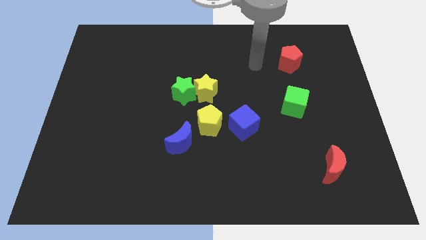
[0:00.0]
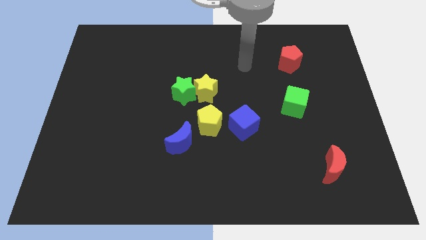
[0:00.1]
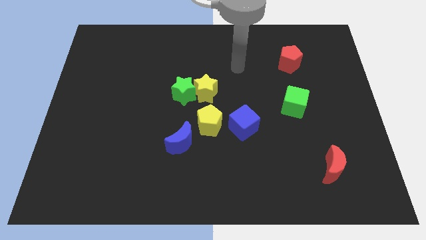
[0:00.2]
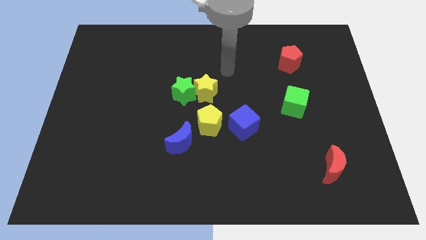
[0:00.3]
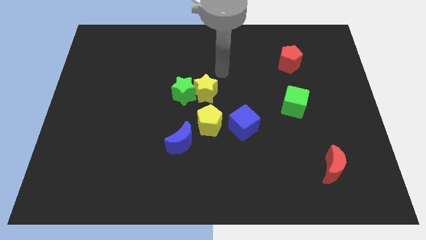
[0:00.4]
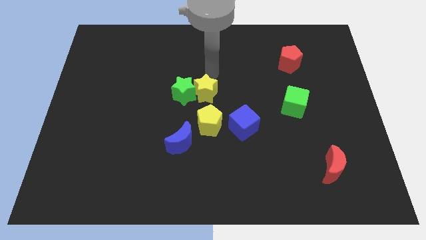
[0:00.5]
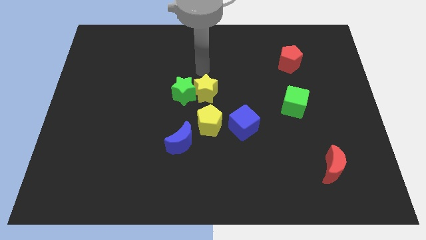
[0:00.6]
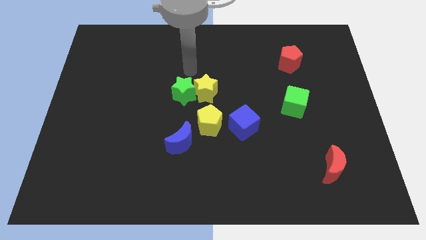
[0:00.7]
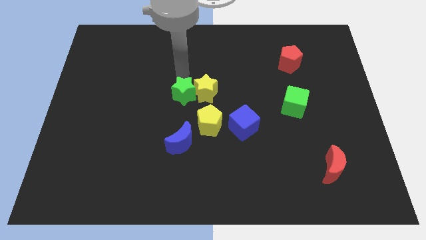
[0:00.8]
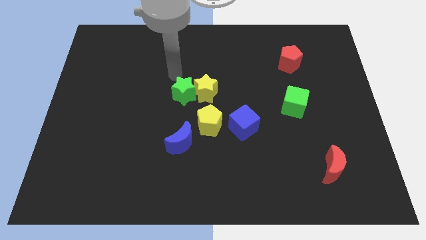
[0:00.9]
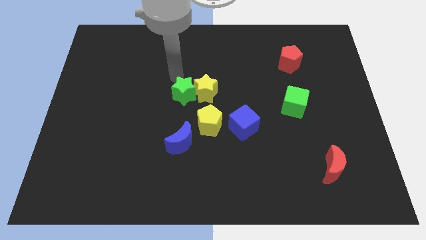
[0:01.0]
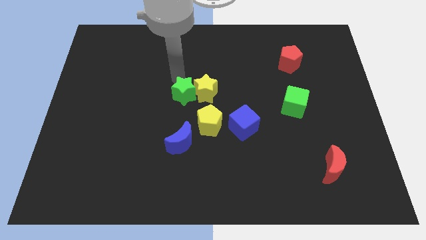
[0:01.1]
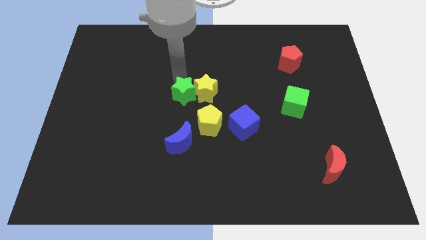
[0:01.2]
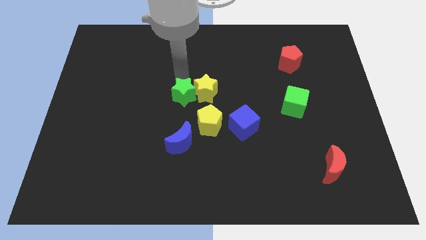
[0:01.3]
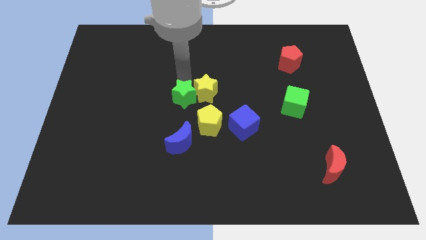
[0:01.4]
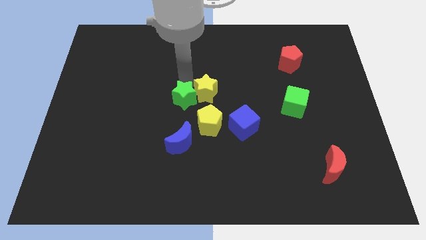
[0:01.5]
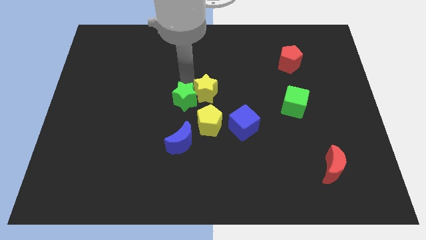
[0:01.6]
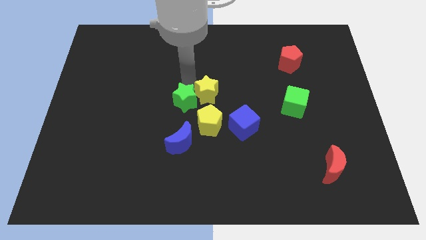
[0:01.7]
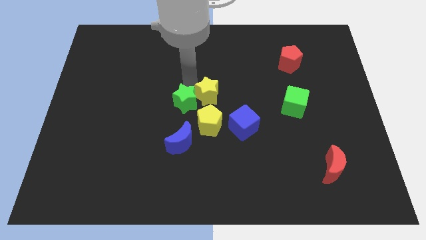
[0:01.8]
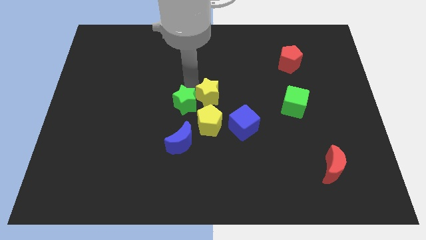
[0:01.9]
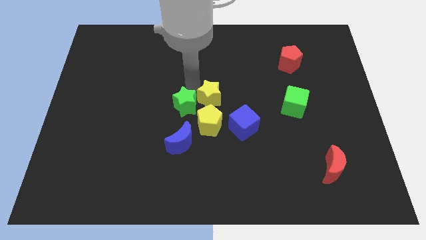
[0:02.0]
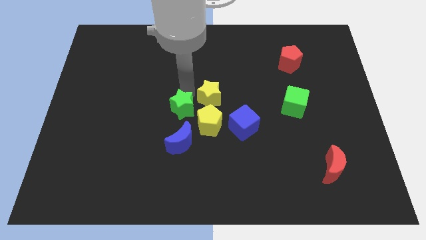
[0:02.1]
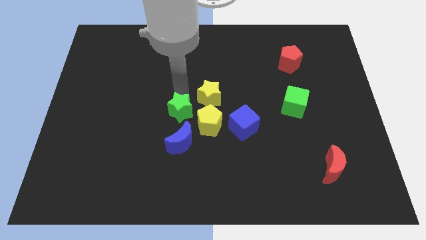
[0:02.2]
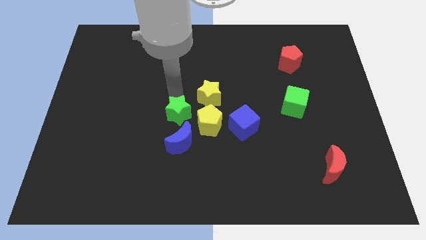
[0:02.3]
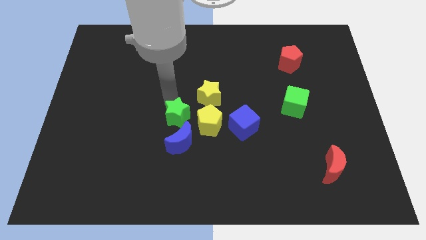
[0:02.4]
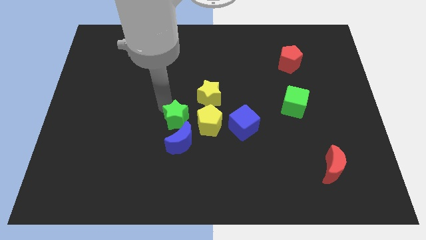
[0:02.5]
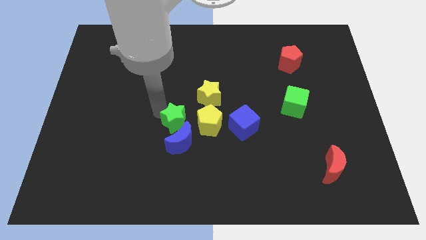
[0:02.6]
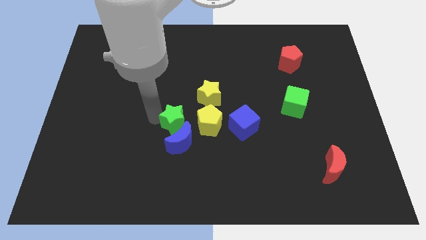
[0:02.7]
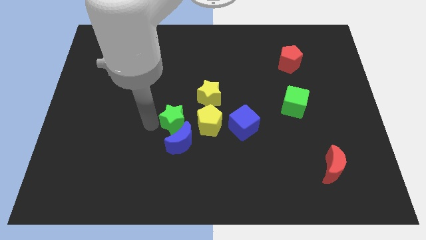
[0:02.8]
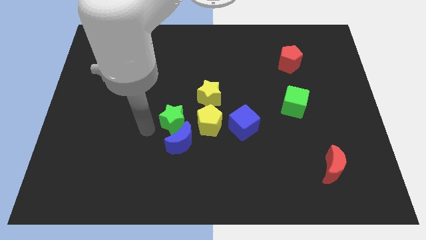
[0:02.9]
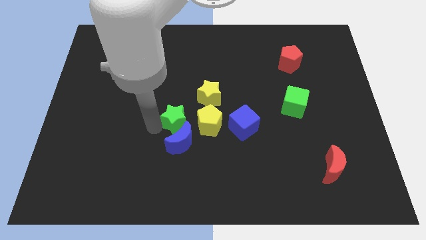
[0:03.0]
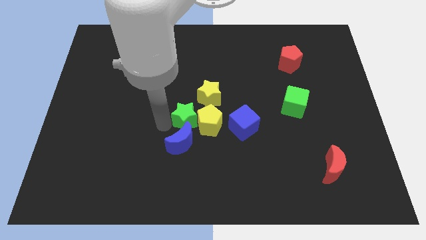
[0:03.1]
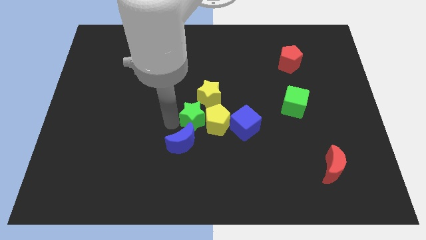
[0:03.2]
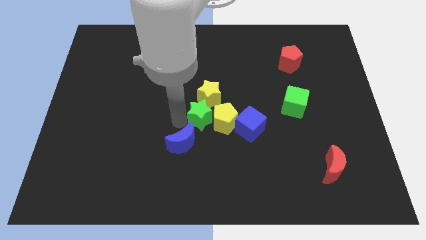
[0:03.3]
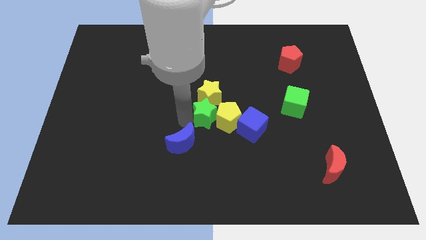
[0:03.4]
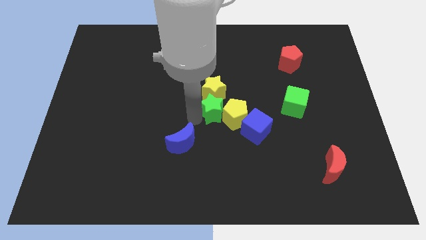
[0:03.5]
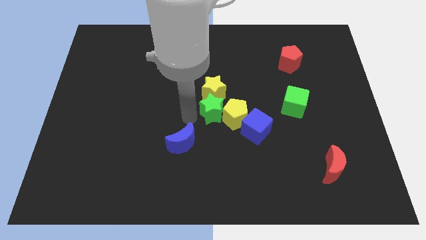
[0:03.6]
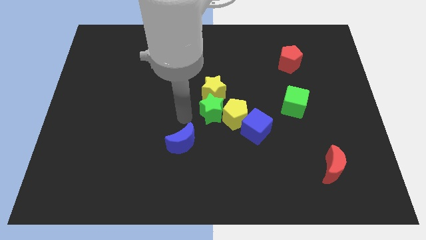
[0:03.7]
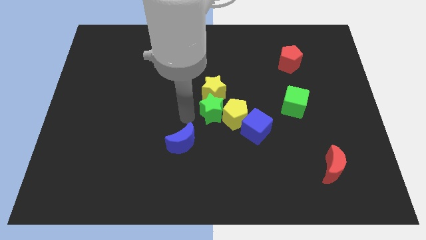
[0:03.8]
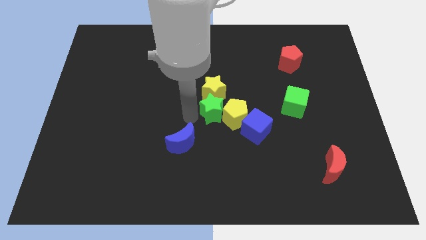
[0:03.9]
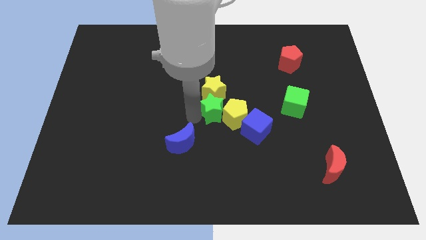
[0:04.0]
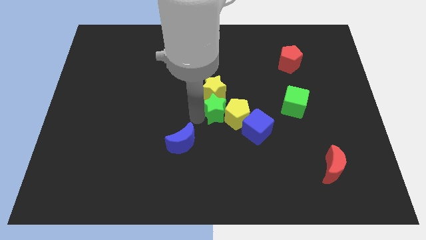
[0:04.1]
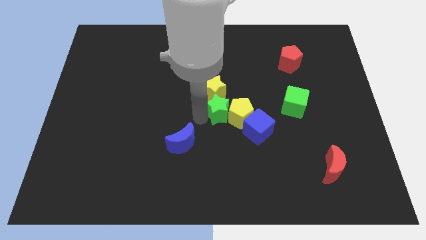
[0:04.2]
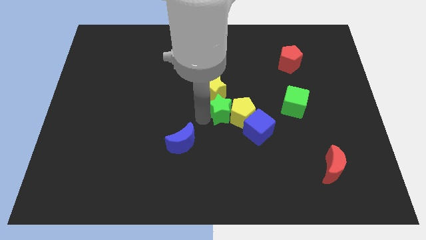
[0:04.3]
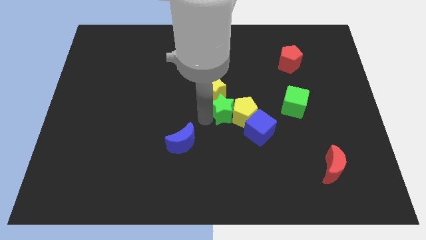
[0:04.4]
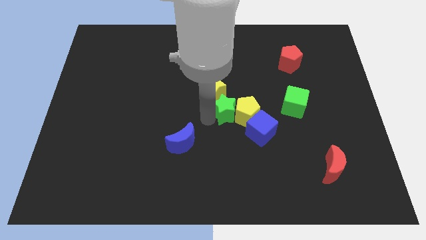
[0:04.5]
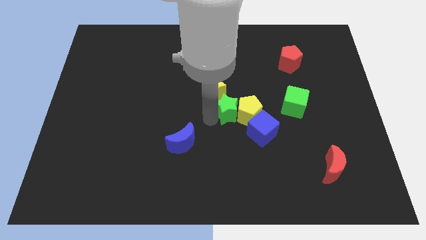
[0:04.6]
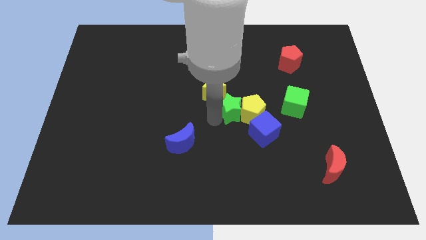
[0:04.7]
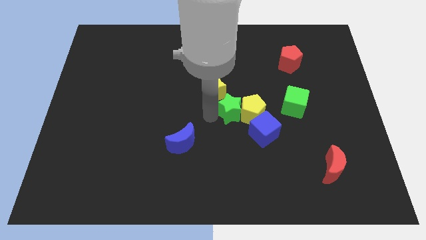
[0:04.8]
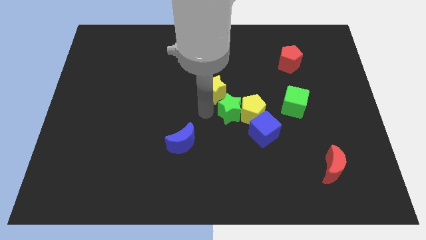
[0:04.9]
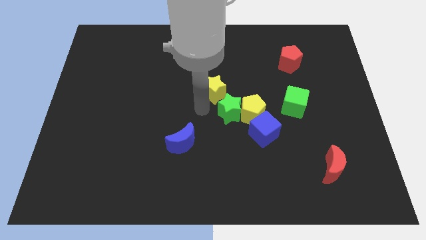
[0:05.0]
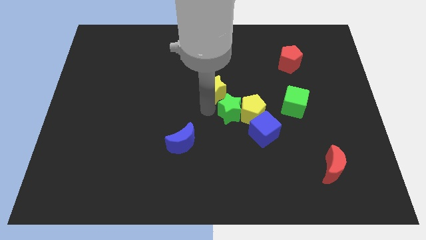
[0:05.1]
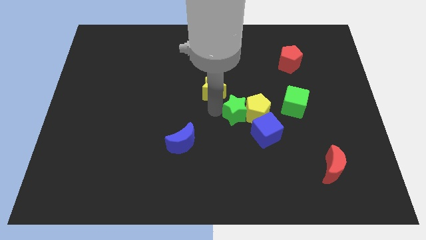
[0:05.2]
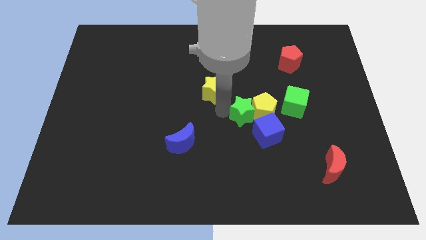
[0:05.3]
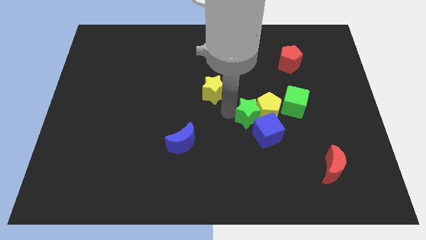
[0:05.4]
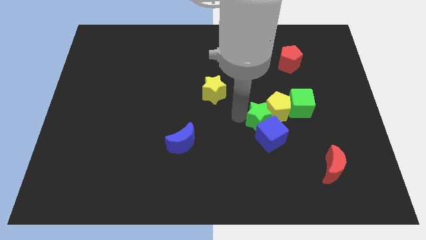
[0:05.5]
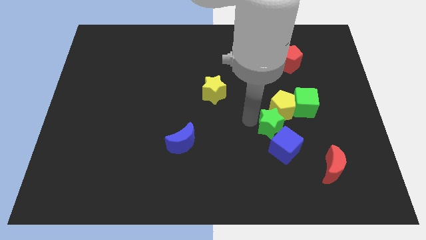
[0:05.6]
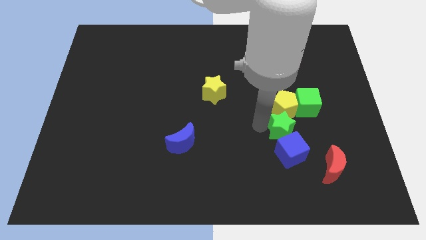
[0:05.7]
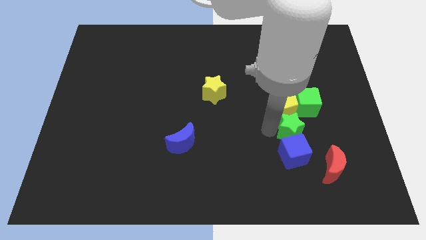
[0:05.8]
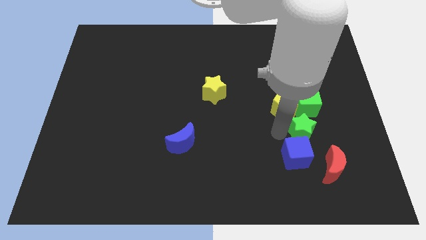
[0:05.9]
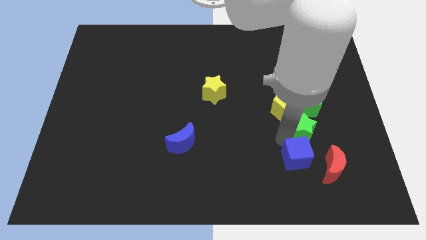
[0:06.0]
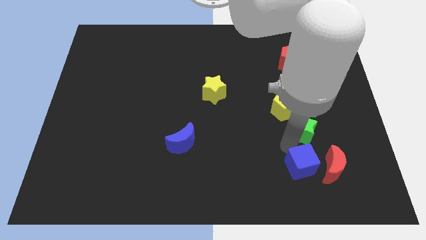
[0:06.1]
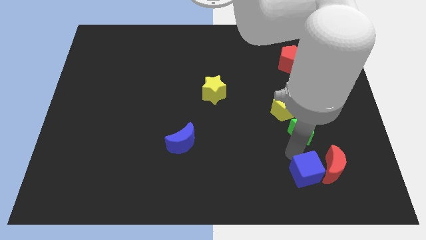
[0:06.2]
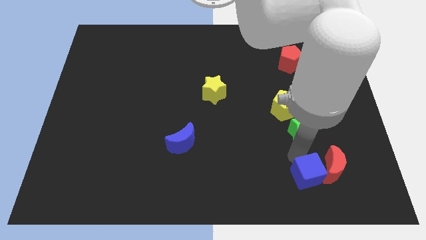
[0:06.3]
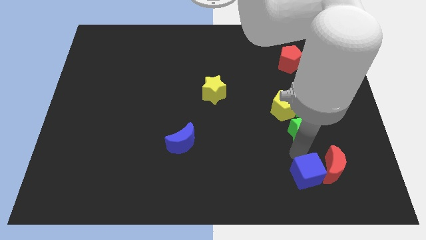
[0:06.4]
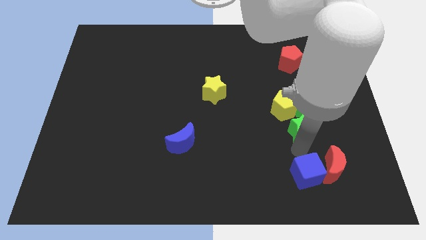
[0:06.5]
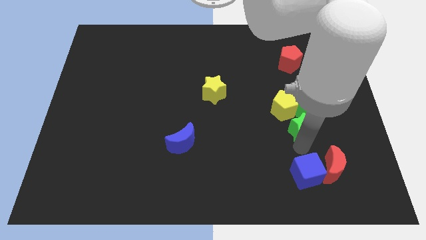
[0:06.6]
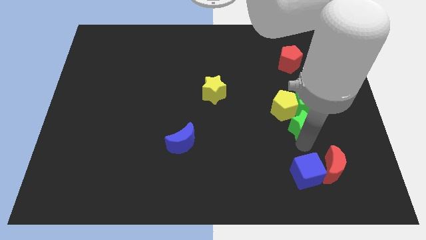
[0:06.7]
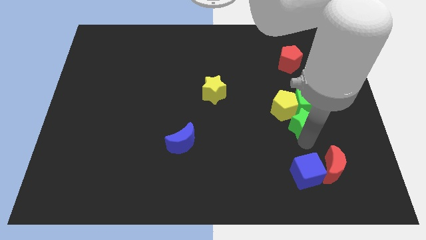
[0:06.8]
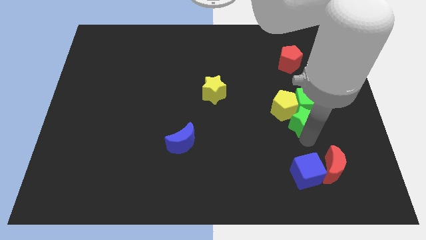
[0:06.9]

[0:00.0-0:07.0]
slide the green star close to the green cube

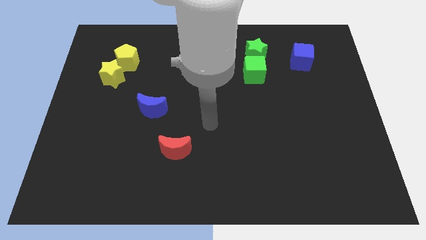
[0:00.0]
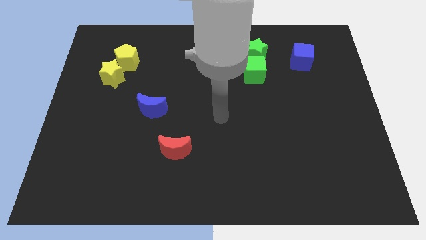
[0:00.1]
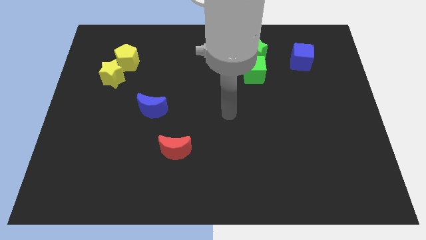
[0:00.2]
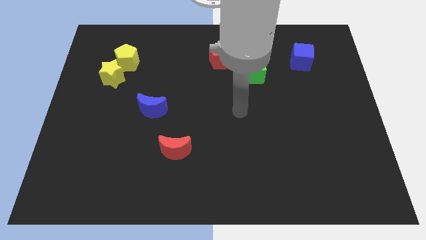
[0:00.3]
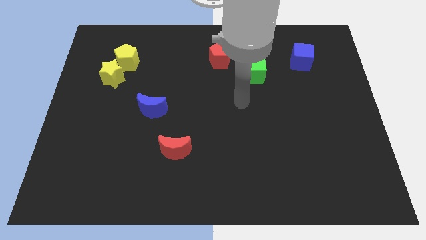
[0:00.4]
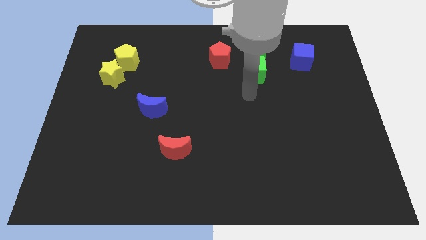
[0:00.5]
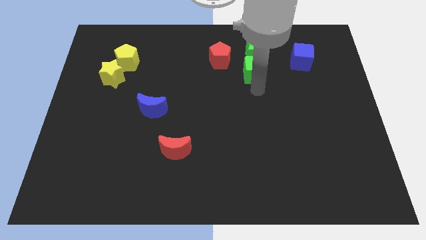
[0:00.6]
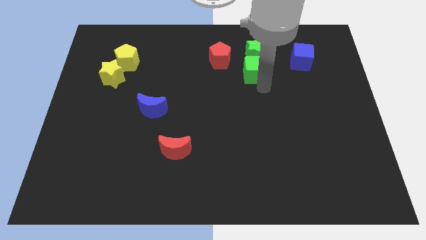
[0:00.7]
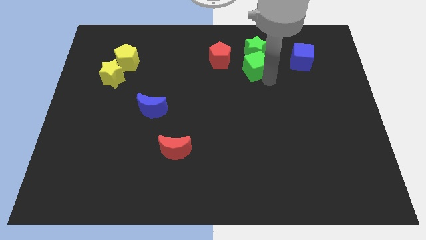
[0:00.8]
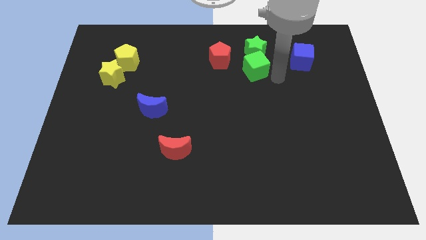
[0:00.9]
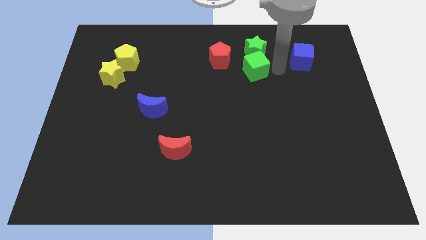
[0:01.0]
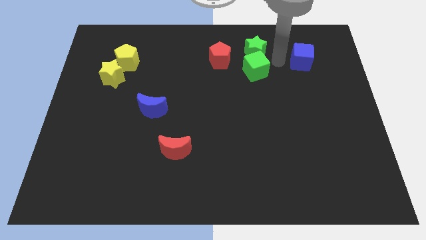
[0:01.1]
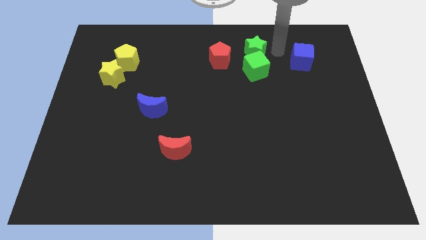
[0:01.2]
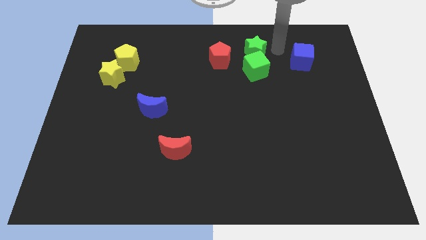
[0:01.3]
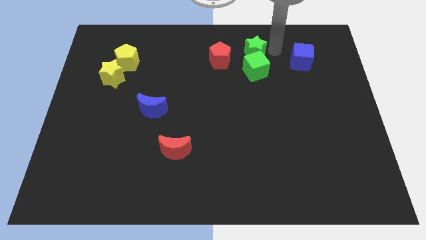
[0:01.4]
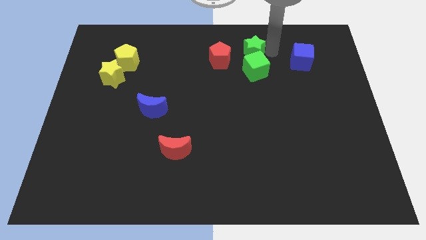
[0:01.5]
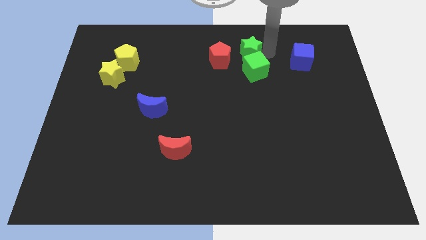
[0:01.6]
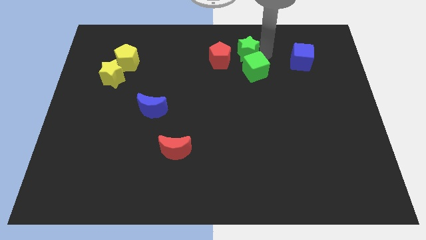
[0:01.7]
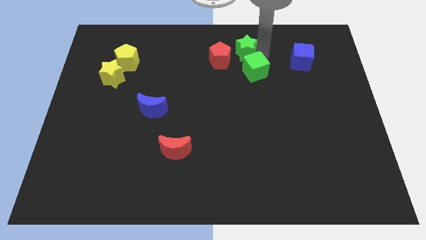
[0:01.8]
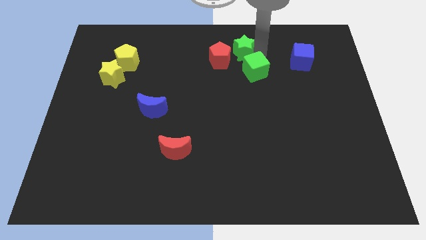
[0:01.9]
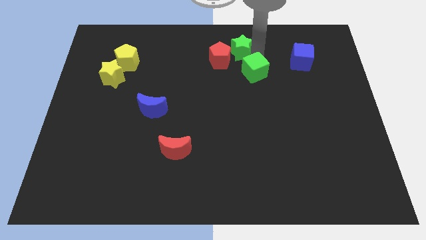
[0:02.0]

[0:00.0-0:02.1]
put the green star to the red pentagon
